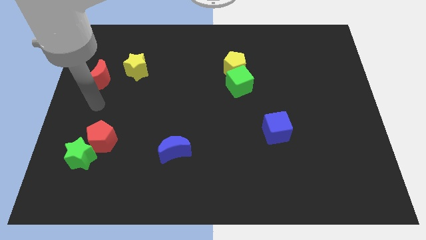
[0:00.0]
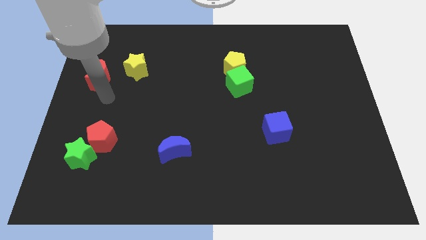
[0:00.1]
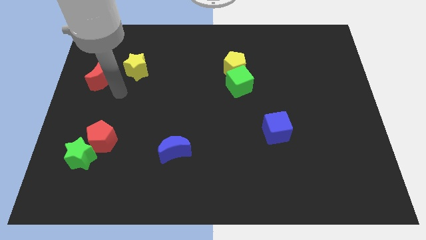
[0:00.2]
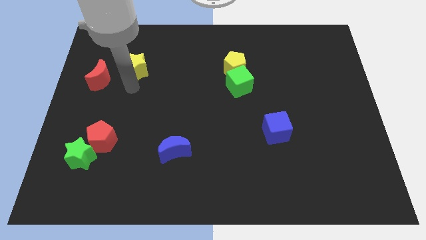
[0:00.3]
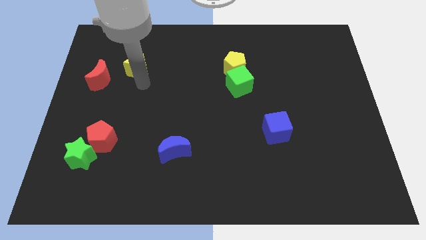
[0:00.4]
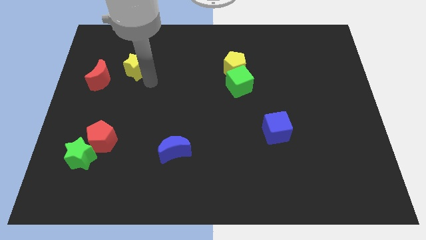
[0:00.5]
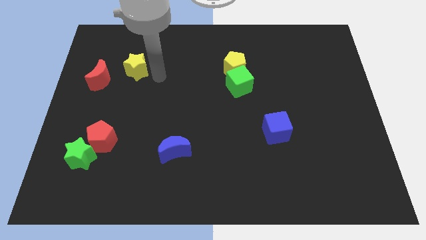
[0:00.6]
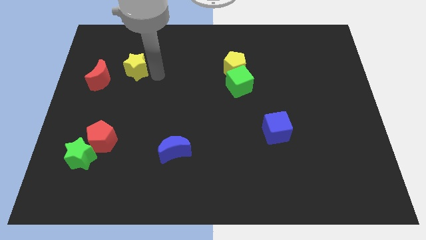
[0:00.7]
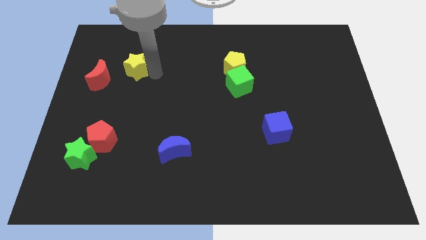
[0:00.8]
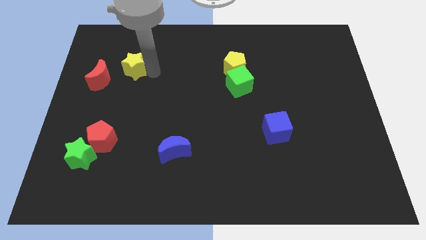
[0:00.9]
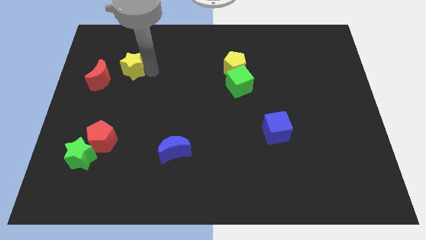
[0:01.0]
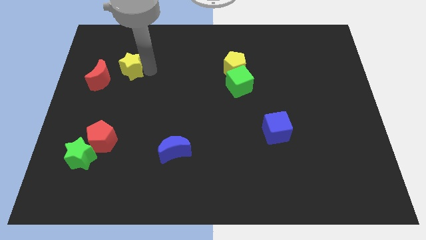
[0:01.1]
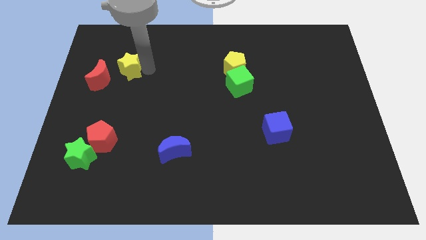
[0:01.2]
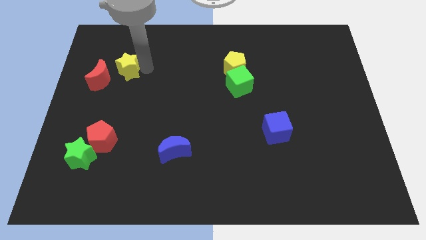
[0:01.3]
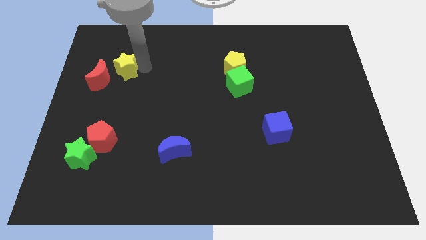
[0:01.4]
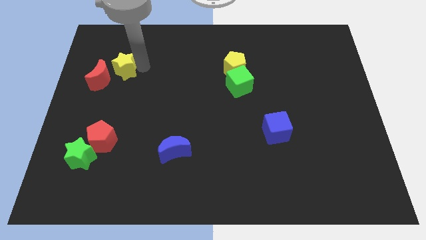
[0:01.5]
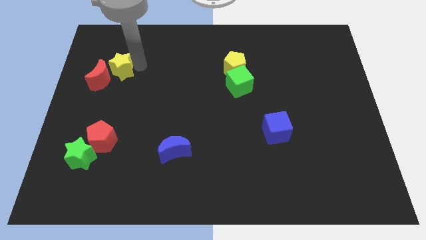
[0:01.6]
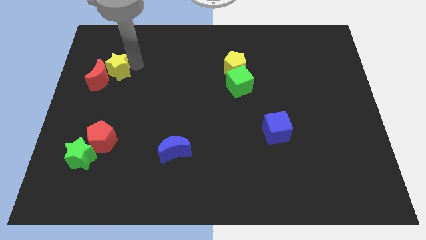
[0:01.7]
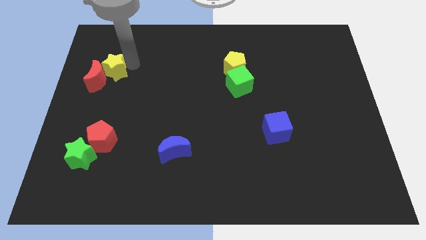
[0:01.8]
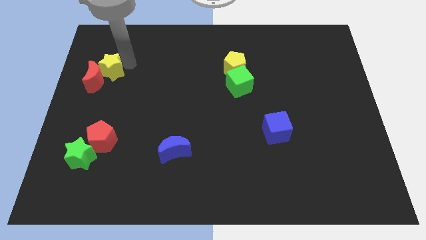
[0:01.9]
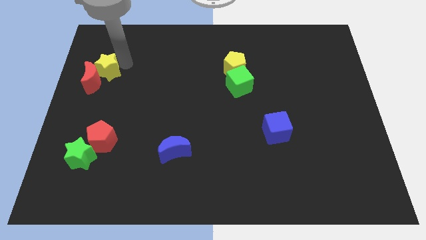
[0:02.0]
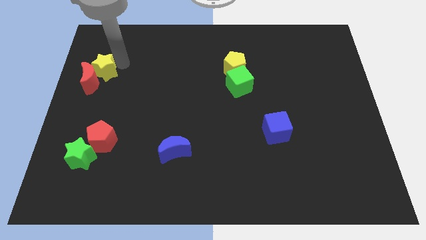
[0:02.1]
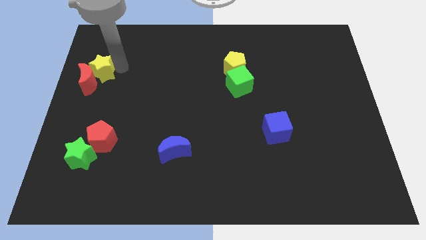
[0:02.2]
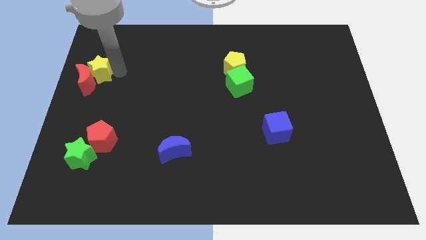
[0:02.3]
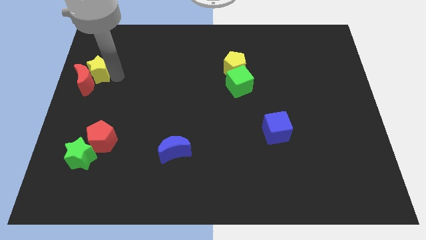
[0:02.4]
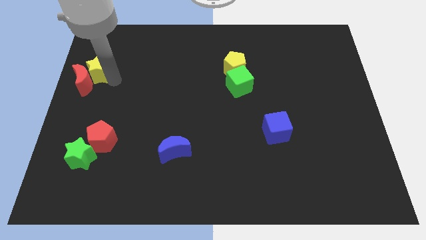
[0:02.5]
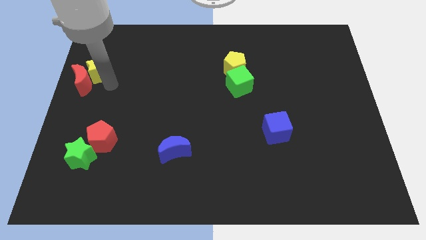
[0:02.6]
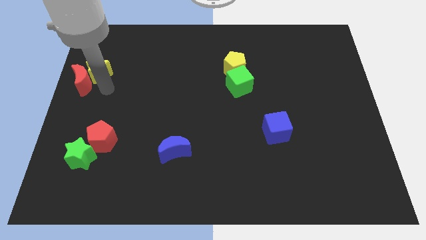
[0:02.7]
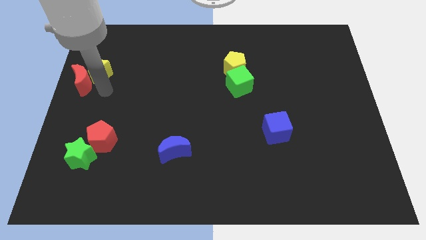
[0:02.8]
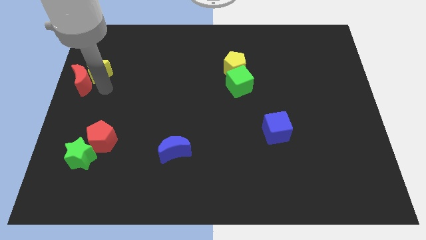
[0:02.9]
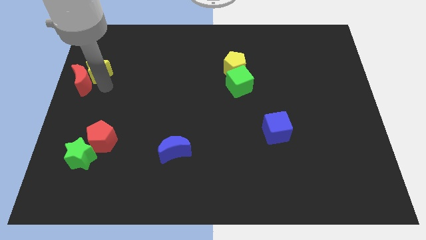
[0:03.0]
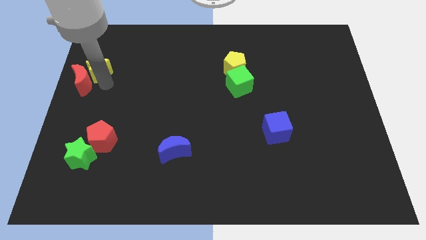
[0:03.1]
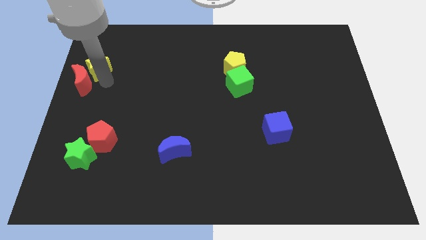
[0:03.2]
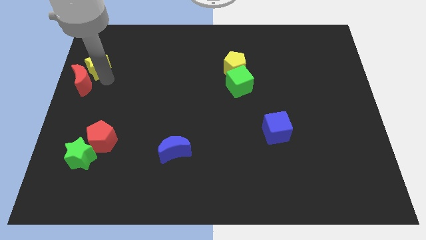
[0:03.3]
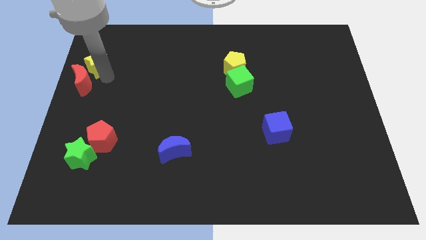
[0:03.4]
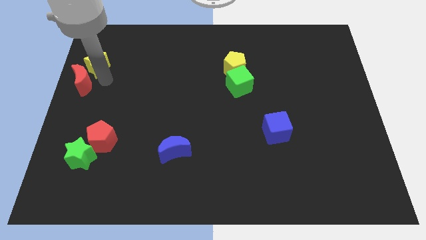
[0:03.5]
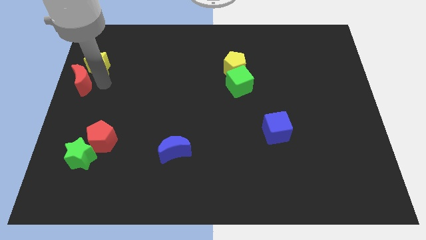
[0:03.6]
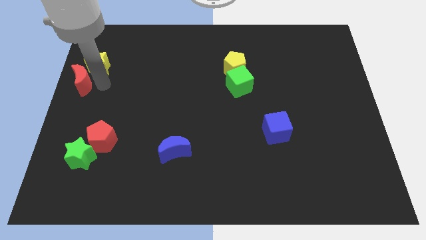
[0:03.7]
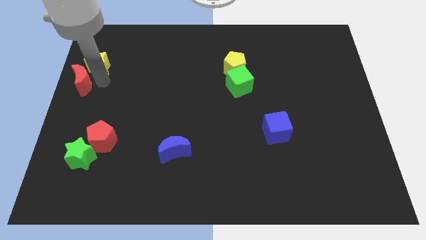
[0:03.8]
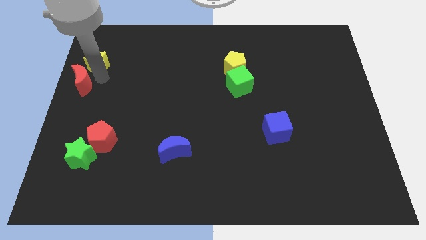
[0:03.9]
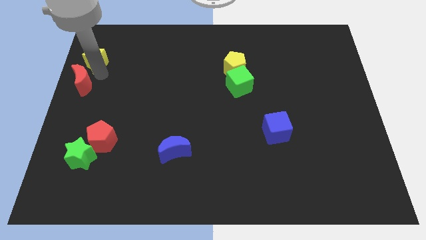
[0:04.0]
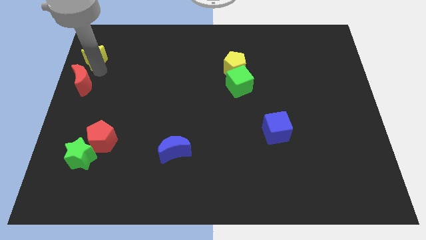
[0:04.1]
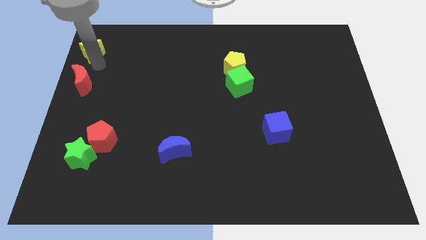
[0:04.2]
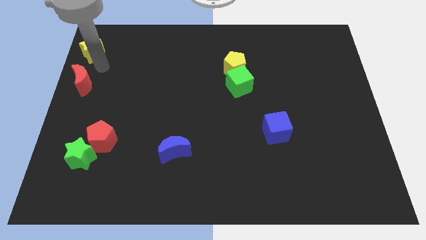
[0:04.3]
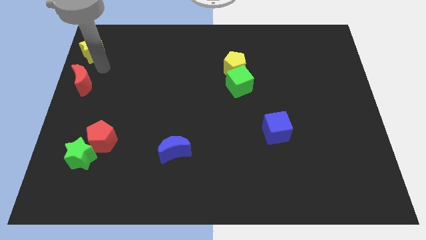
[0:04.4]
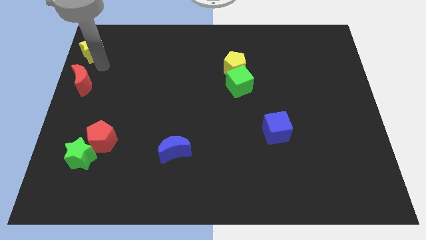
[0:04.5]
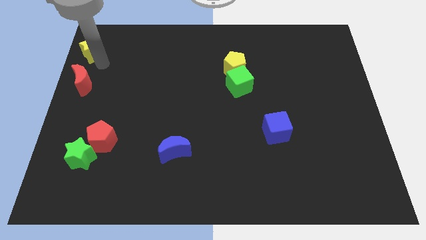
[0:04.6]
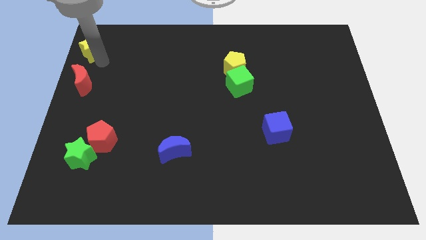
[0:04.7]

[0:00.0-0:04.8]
push the yellow star to the top left of the board

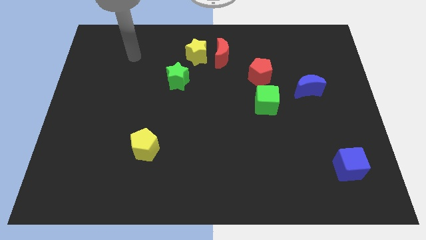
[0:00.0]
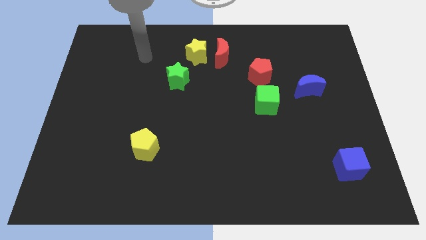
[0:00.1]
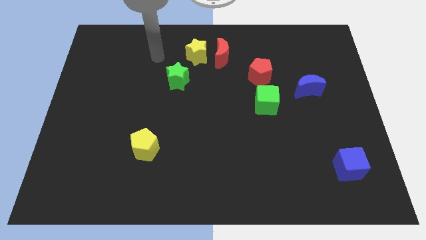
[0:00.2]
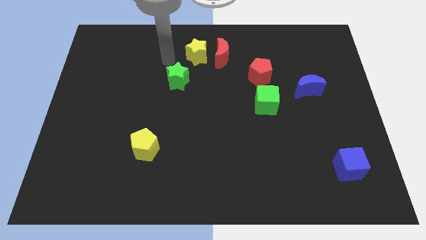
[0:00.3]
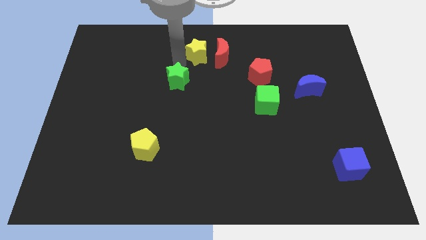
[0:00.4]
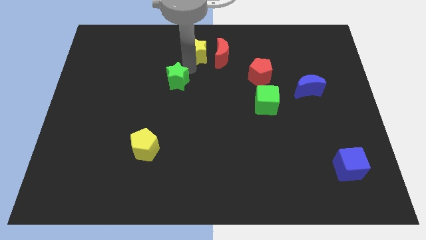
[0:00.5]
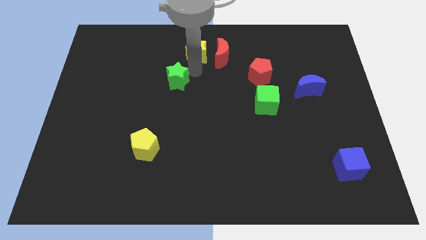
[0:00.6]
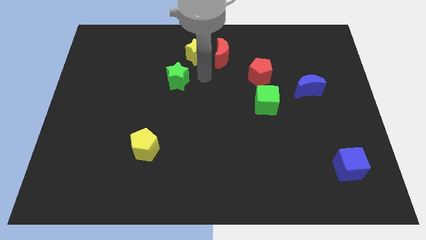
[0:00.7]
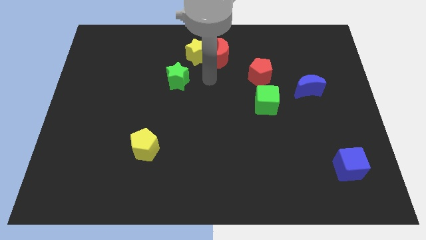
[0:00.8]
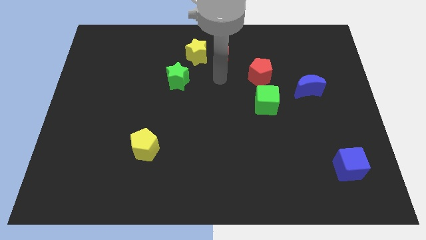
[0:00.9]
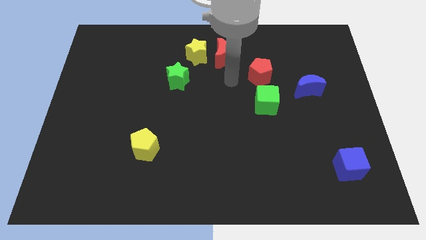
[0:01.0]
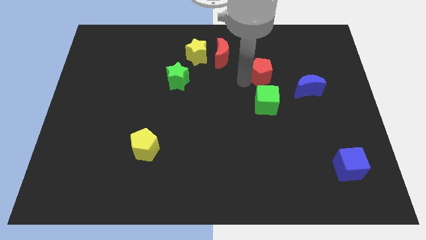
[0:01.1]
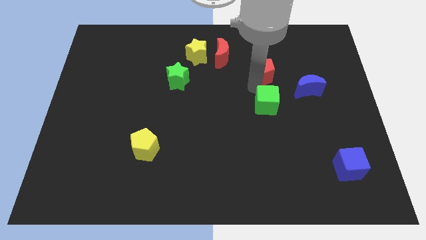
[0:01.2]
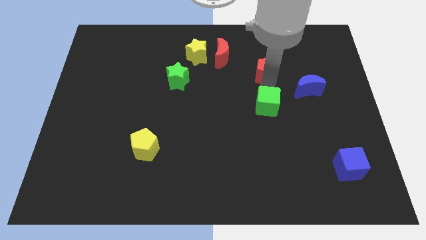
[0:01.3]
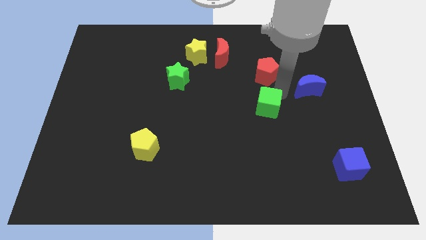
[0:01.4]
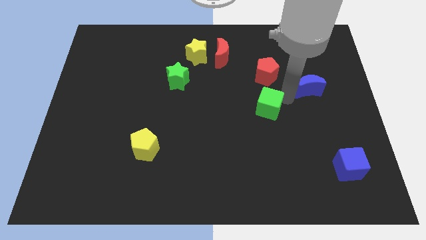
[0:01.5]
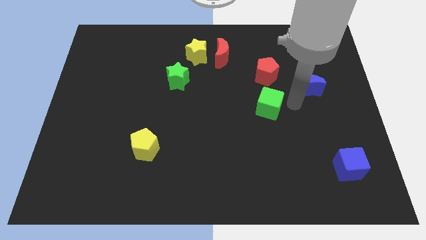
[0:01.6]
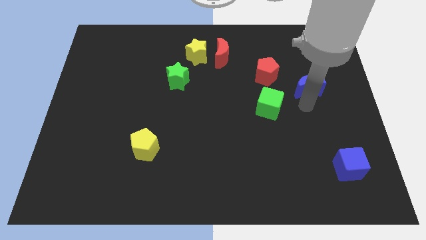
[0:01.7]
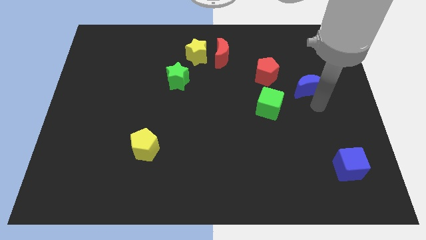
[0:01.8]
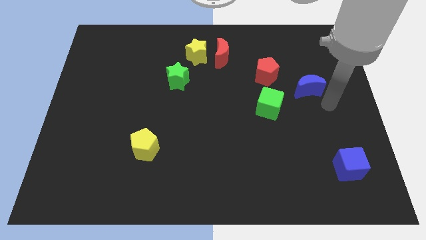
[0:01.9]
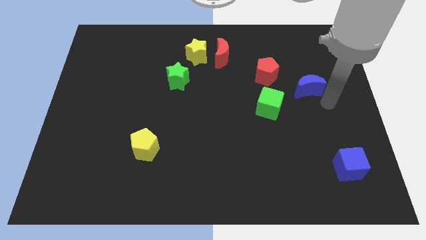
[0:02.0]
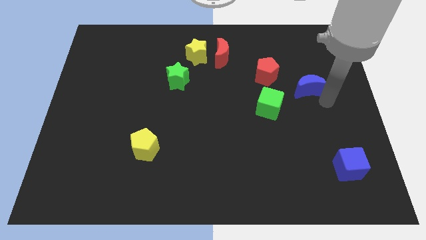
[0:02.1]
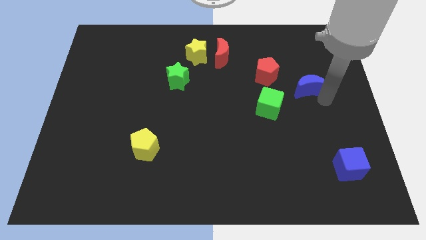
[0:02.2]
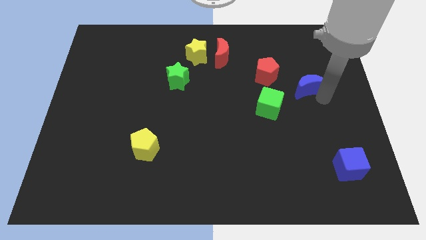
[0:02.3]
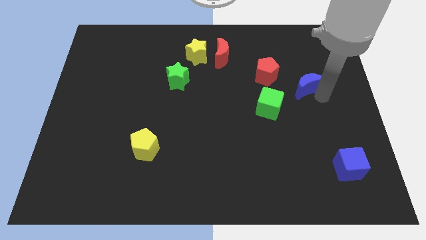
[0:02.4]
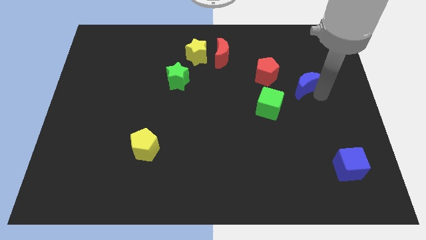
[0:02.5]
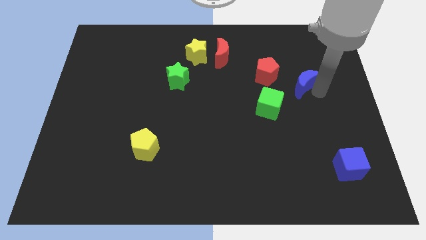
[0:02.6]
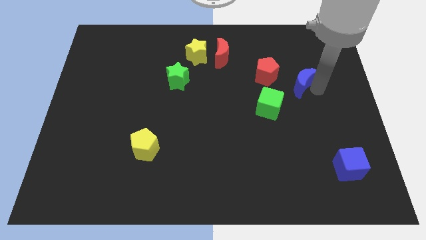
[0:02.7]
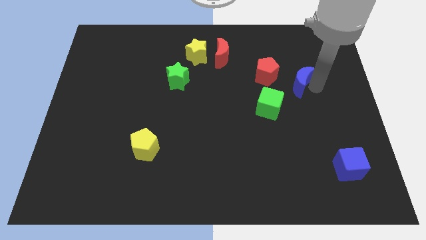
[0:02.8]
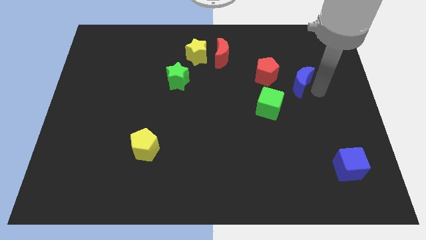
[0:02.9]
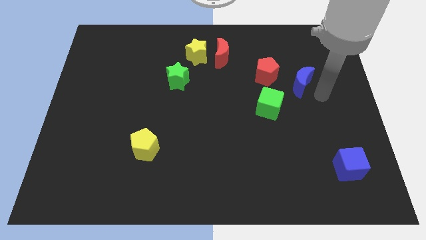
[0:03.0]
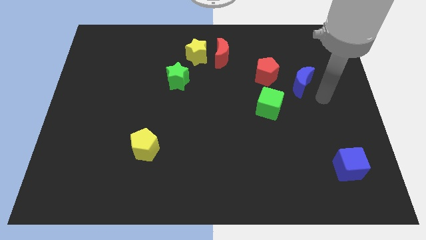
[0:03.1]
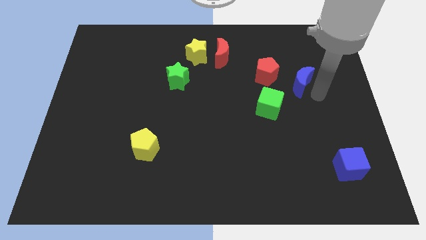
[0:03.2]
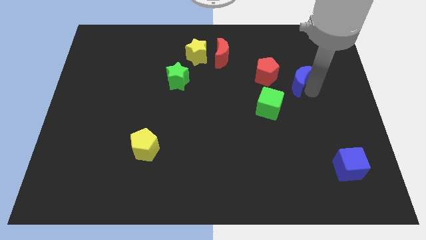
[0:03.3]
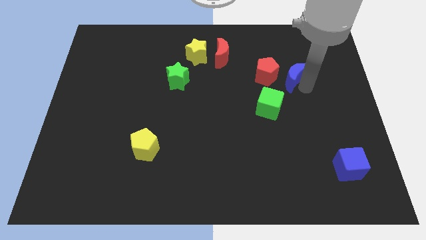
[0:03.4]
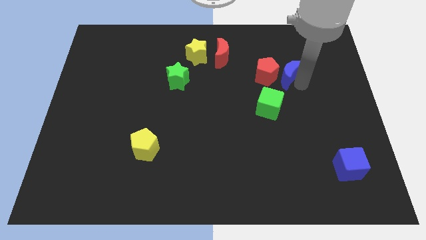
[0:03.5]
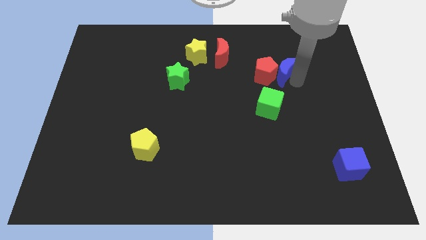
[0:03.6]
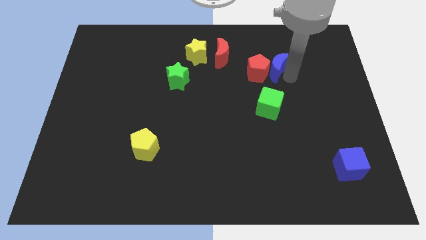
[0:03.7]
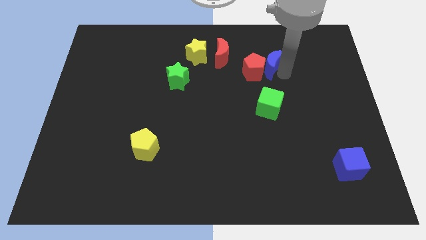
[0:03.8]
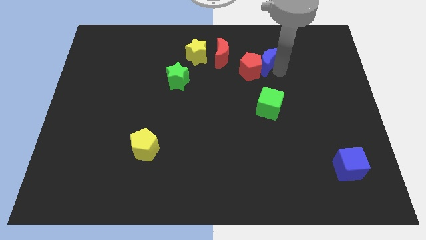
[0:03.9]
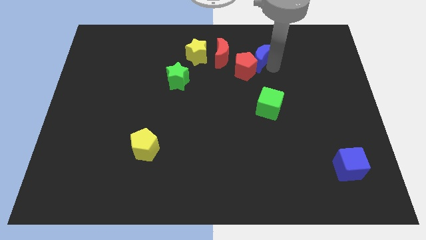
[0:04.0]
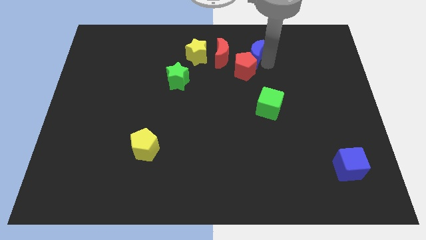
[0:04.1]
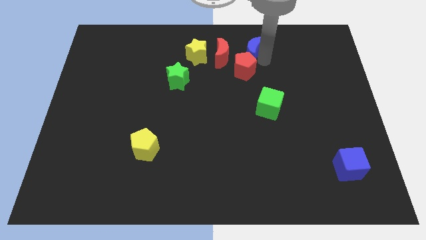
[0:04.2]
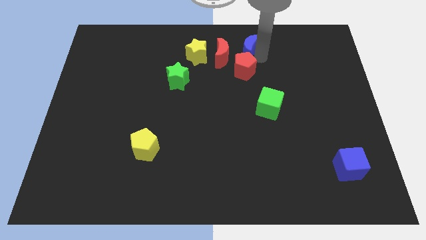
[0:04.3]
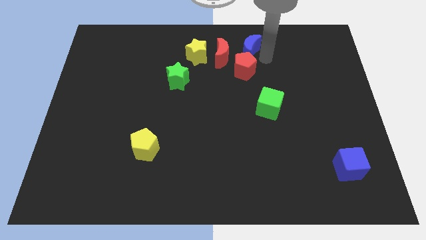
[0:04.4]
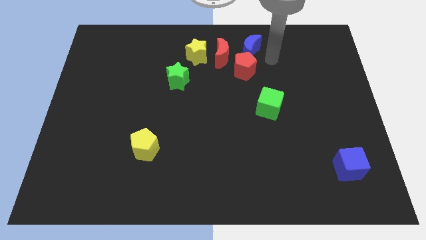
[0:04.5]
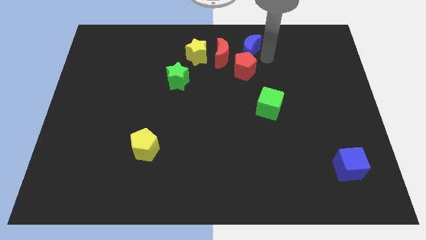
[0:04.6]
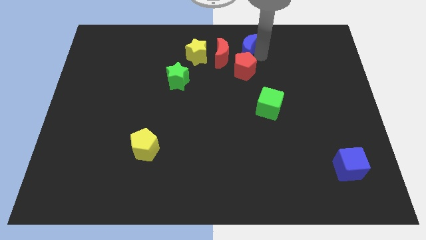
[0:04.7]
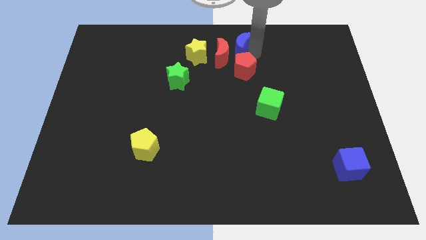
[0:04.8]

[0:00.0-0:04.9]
slide the blue moon to the towards your base
